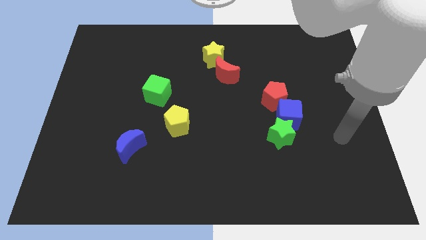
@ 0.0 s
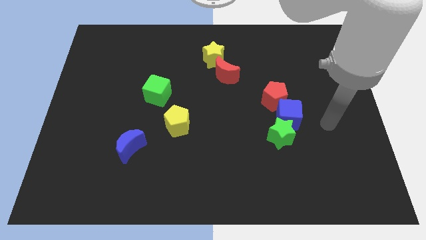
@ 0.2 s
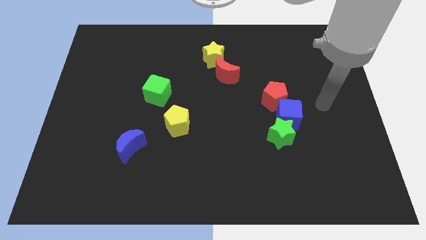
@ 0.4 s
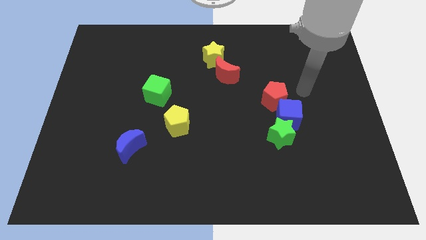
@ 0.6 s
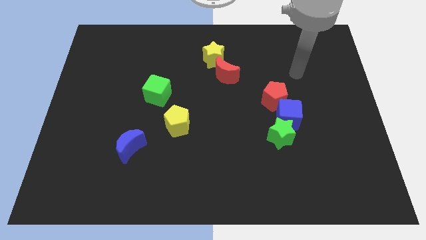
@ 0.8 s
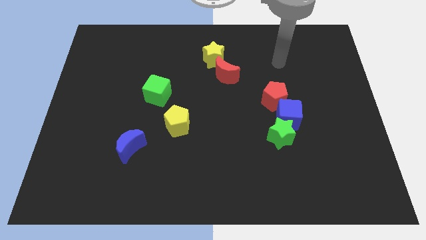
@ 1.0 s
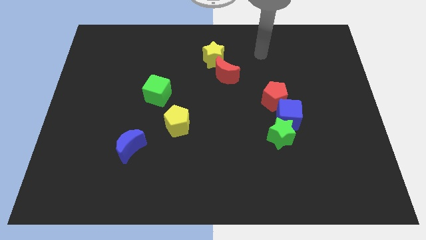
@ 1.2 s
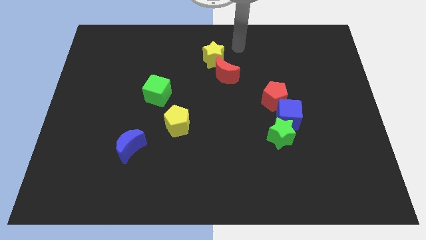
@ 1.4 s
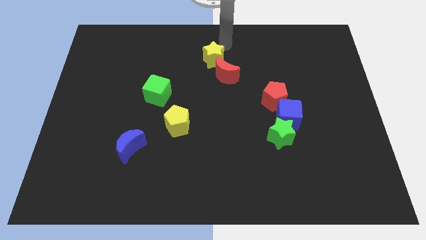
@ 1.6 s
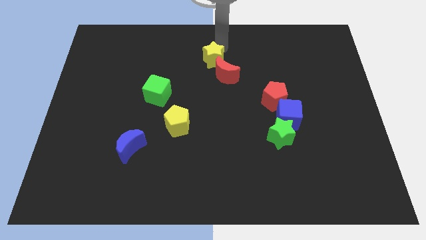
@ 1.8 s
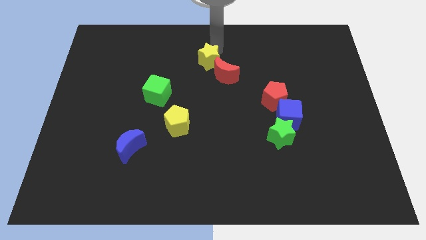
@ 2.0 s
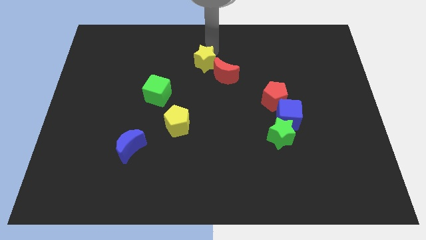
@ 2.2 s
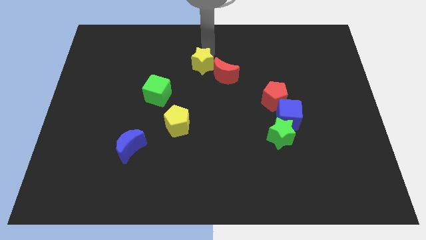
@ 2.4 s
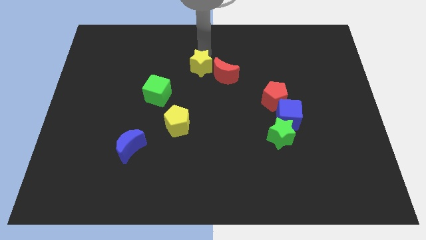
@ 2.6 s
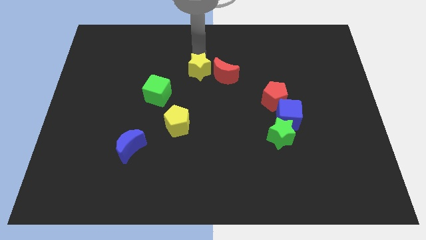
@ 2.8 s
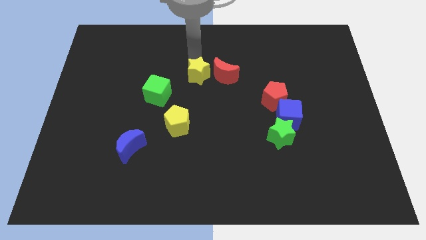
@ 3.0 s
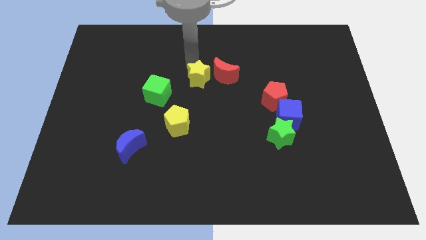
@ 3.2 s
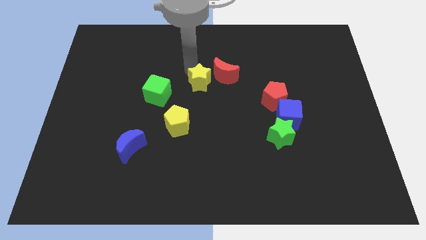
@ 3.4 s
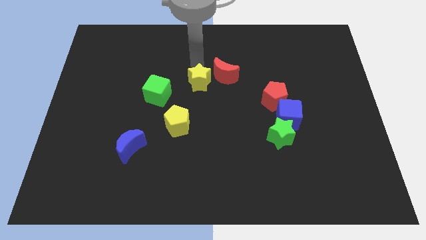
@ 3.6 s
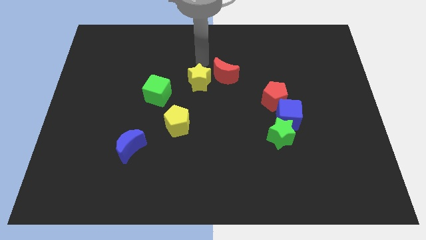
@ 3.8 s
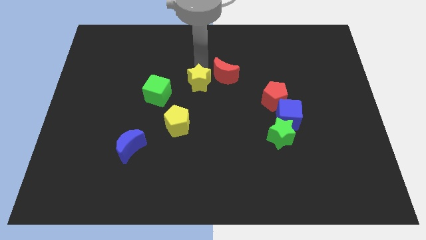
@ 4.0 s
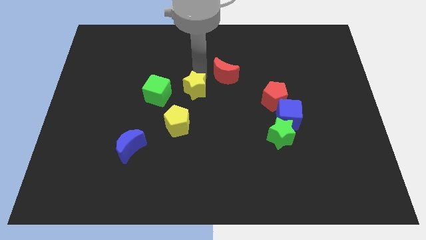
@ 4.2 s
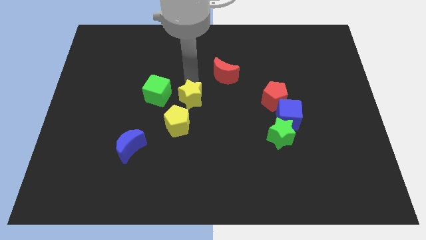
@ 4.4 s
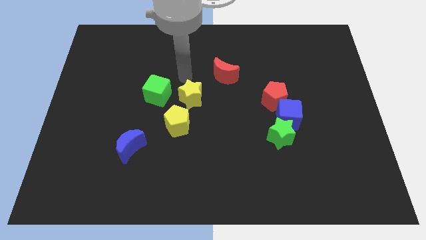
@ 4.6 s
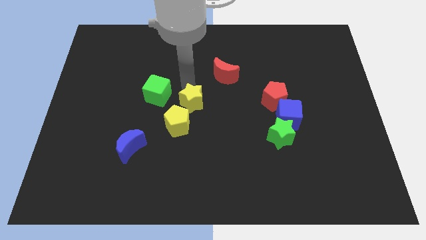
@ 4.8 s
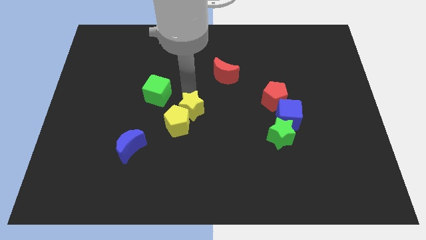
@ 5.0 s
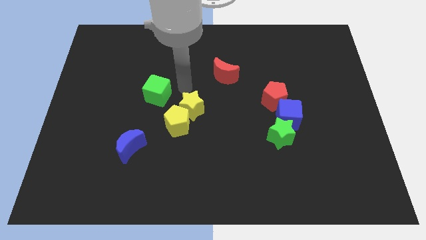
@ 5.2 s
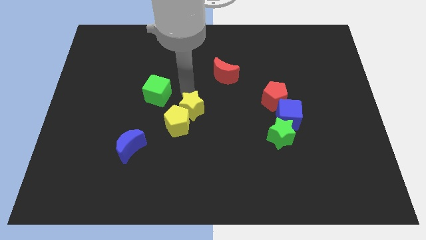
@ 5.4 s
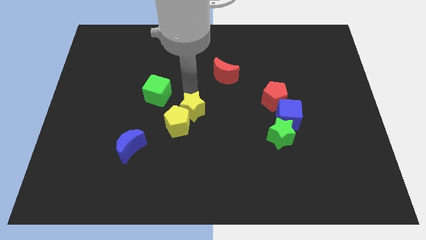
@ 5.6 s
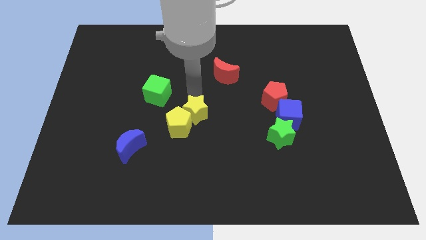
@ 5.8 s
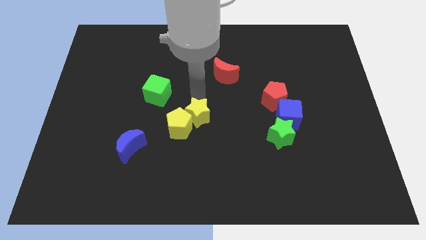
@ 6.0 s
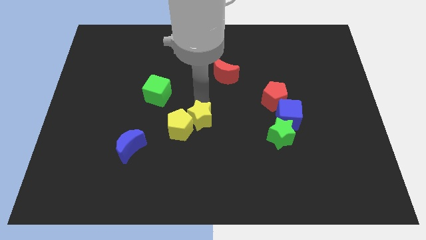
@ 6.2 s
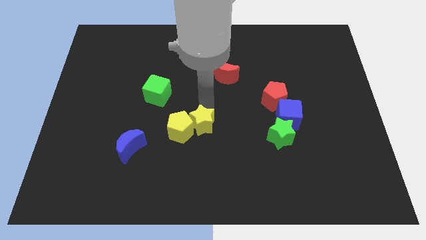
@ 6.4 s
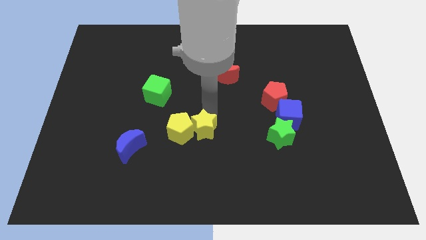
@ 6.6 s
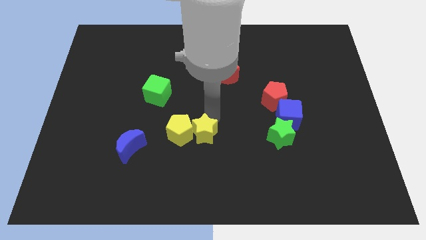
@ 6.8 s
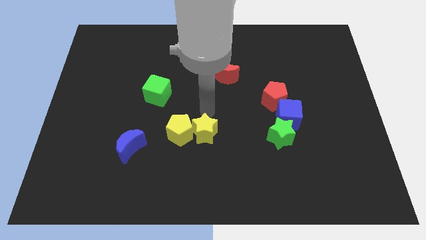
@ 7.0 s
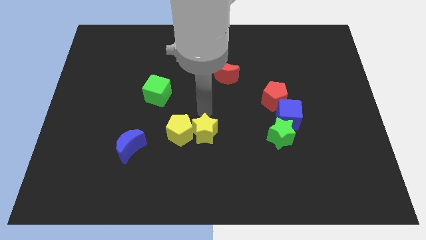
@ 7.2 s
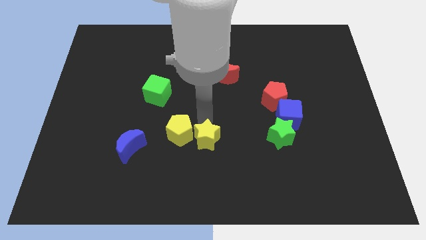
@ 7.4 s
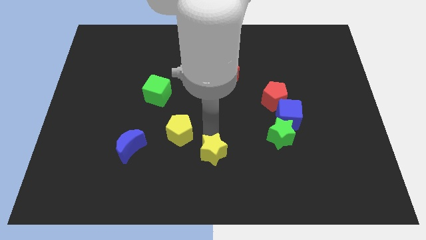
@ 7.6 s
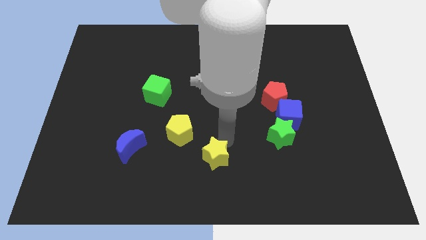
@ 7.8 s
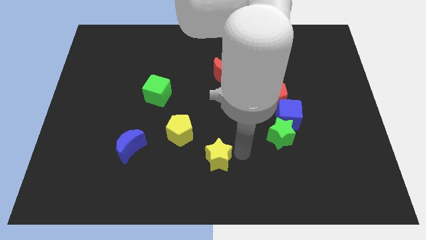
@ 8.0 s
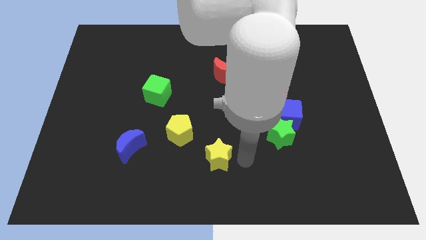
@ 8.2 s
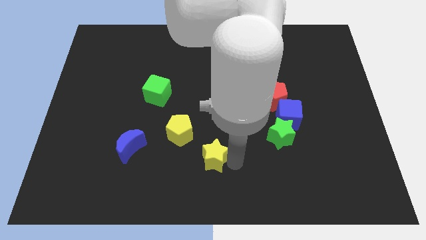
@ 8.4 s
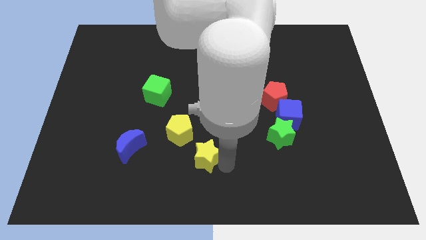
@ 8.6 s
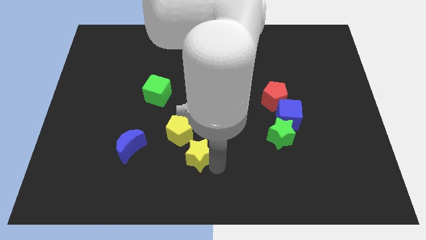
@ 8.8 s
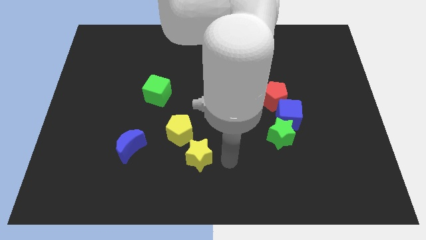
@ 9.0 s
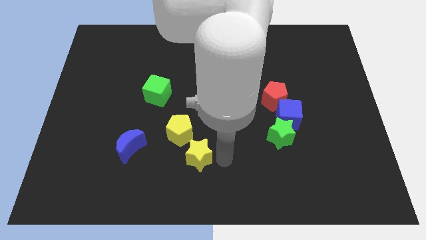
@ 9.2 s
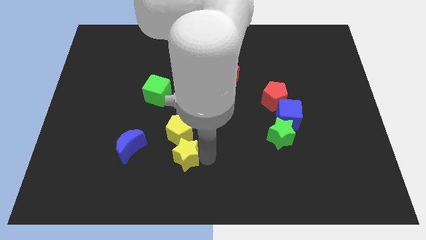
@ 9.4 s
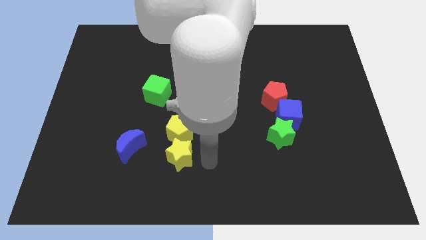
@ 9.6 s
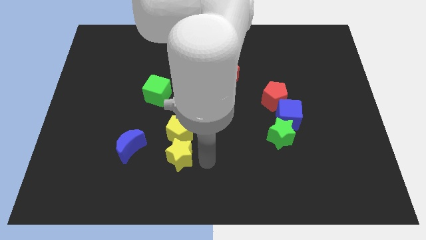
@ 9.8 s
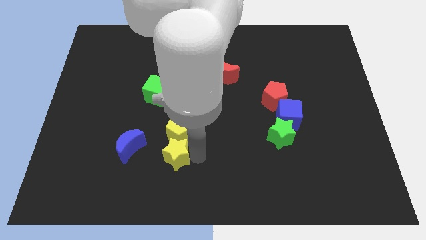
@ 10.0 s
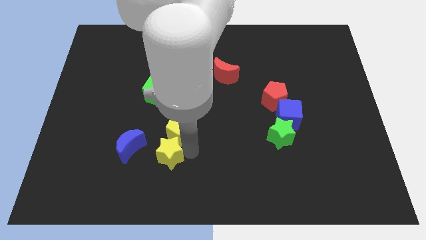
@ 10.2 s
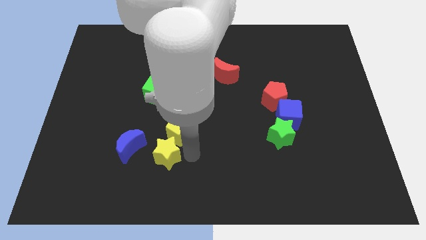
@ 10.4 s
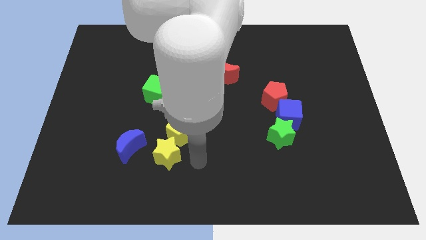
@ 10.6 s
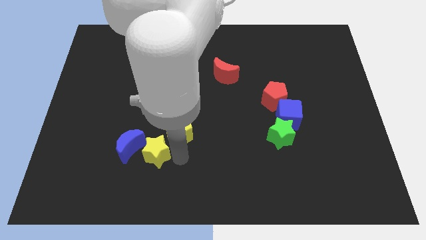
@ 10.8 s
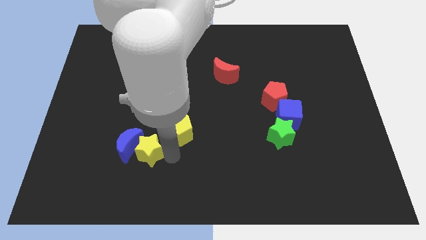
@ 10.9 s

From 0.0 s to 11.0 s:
move the yellow star to the blue moon

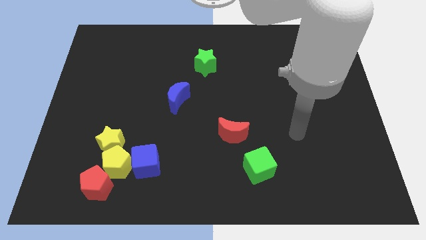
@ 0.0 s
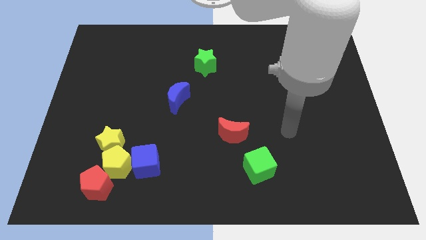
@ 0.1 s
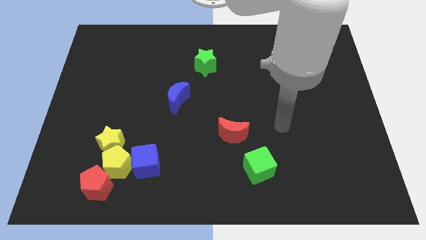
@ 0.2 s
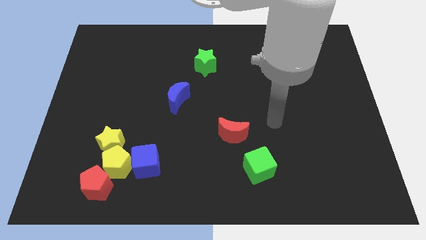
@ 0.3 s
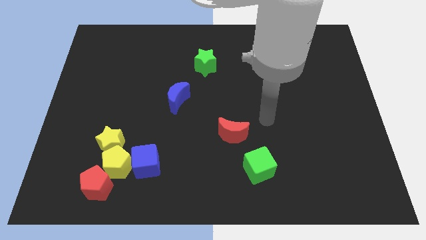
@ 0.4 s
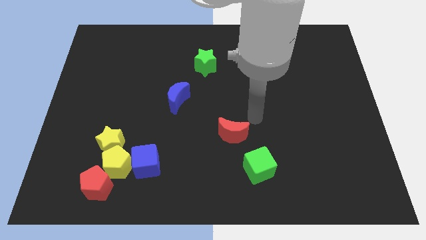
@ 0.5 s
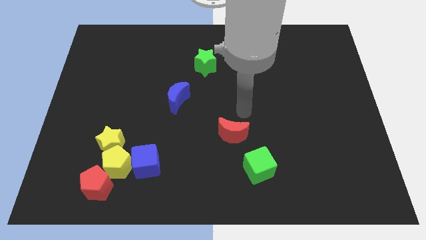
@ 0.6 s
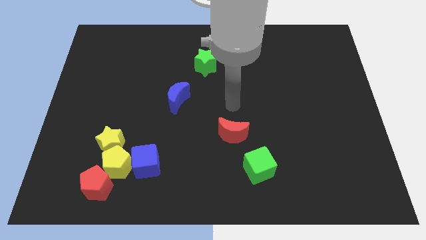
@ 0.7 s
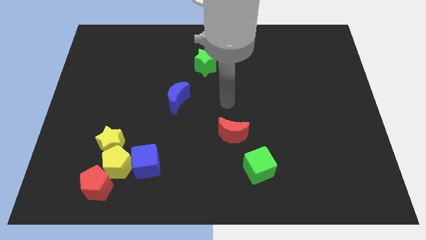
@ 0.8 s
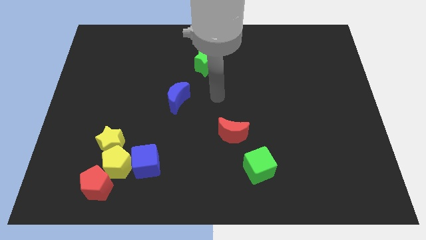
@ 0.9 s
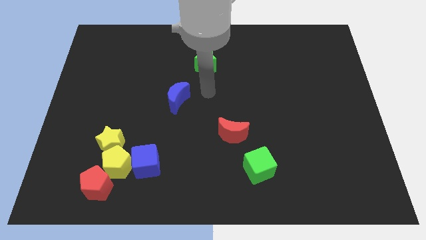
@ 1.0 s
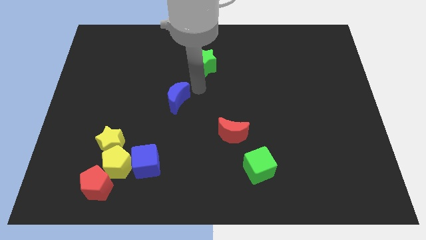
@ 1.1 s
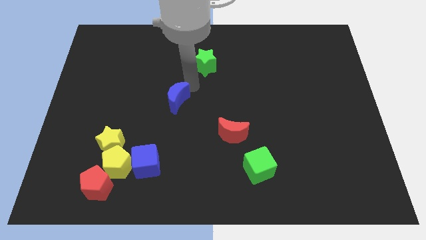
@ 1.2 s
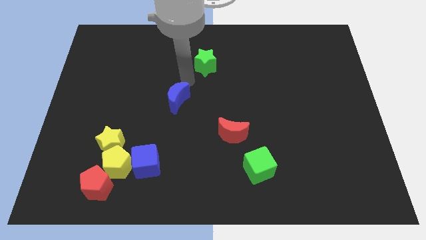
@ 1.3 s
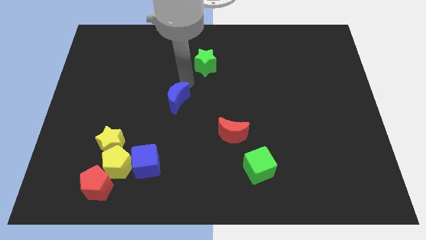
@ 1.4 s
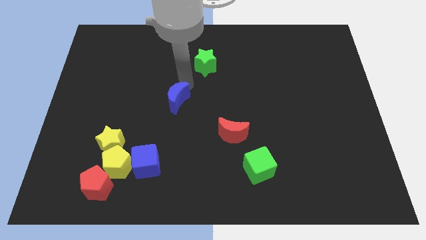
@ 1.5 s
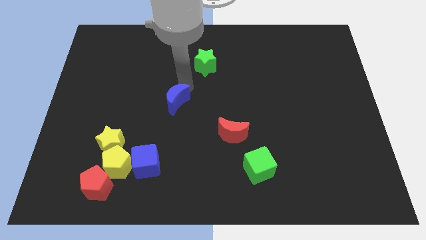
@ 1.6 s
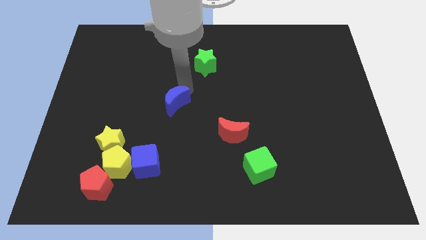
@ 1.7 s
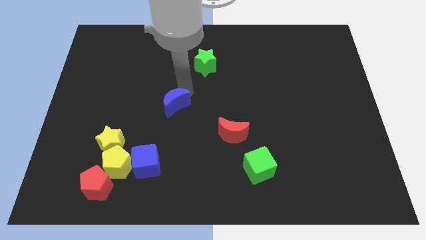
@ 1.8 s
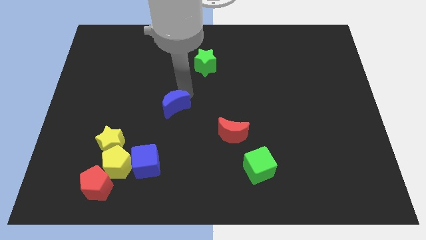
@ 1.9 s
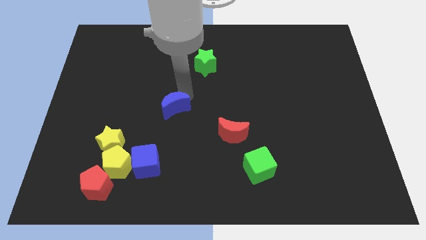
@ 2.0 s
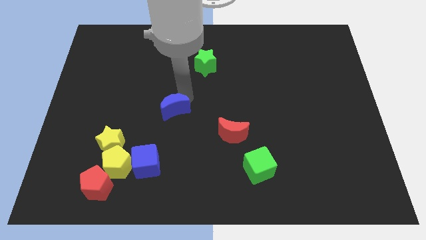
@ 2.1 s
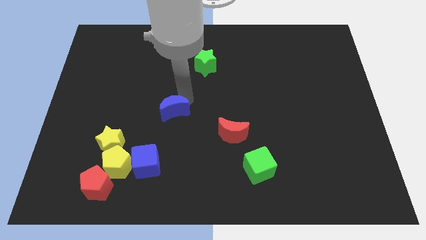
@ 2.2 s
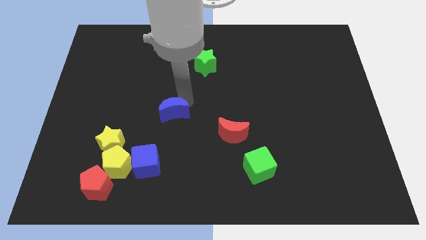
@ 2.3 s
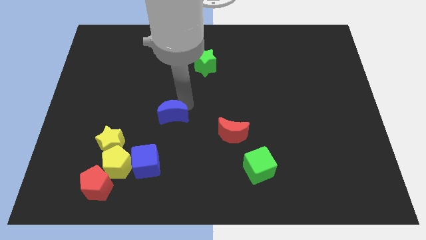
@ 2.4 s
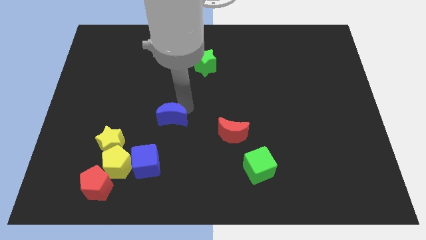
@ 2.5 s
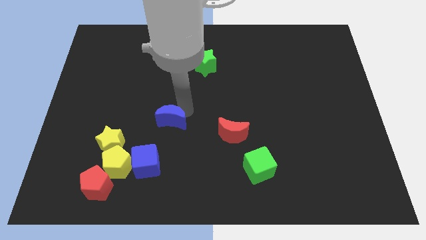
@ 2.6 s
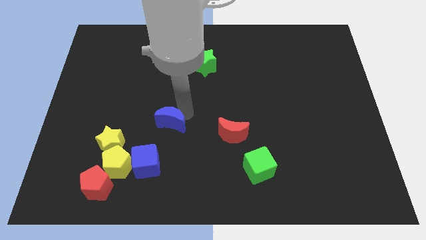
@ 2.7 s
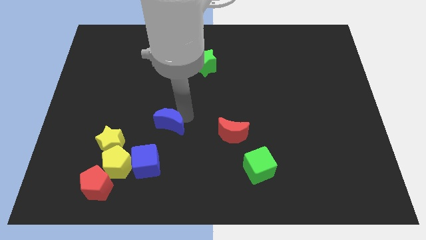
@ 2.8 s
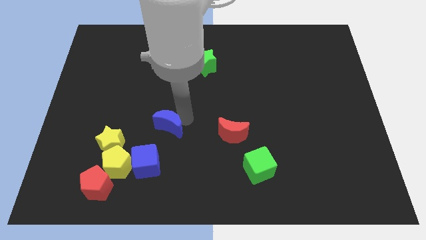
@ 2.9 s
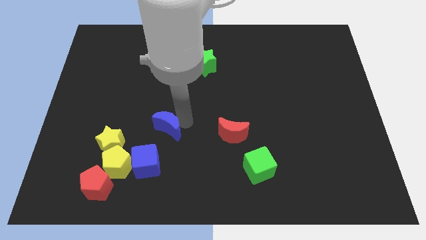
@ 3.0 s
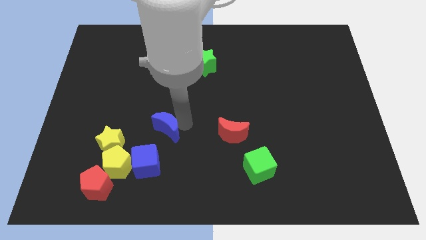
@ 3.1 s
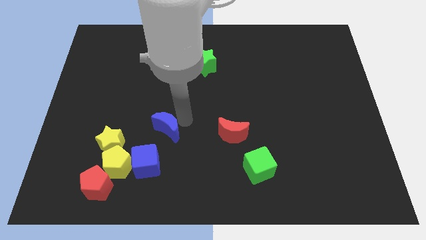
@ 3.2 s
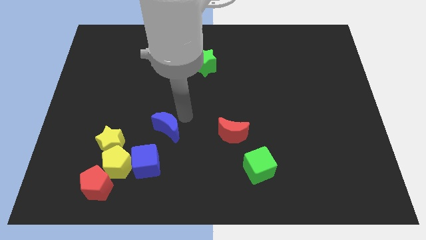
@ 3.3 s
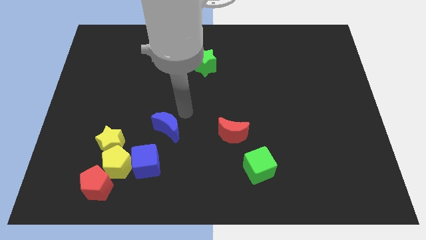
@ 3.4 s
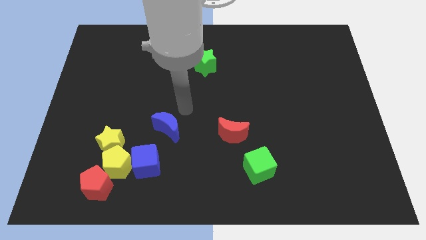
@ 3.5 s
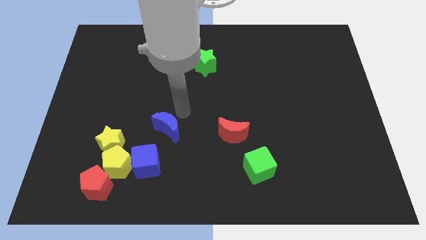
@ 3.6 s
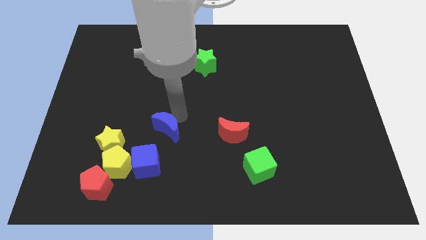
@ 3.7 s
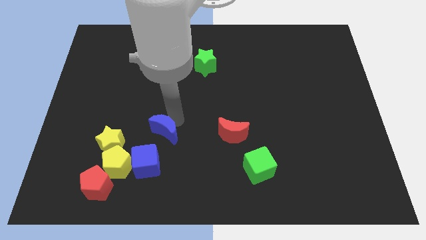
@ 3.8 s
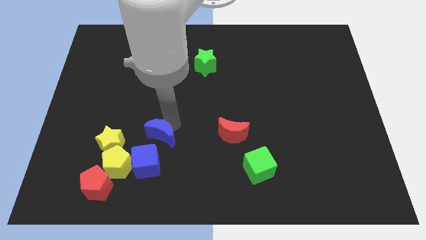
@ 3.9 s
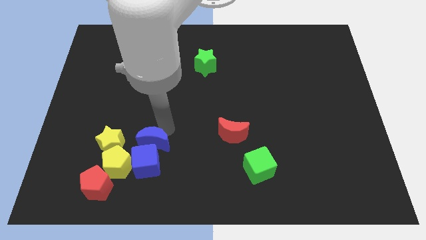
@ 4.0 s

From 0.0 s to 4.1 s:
put the blue moon towards the blue cube
